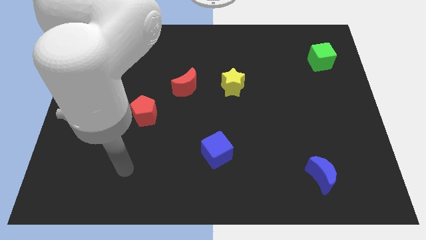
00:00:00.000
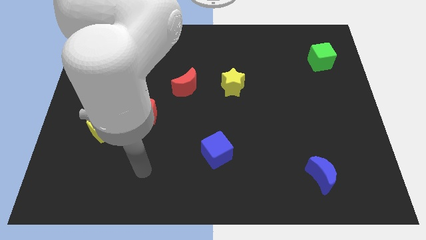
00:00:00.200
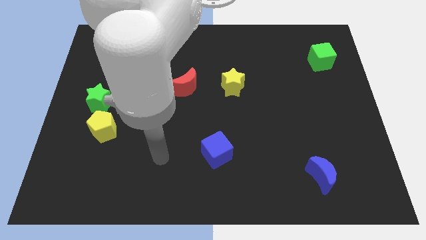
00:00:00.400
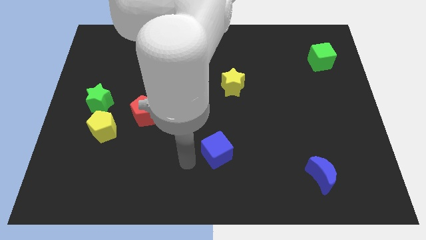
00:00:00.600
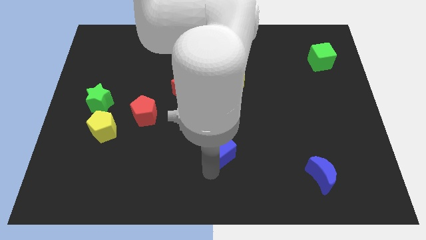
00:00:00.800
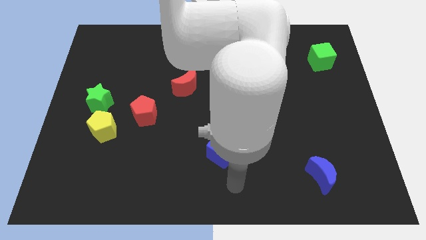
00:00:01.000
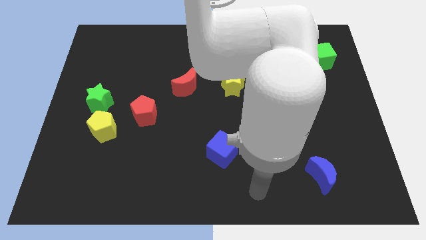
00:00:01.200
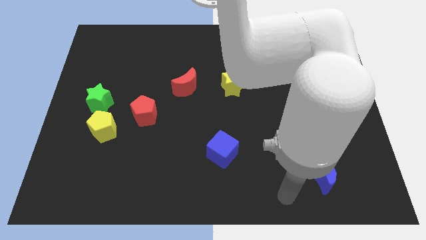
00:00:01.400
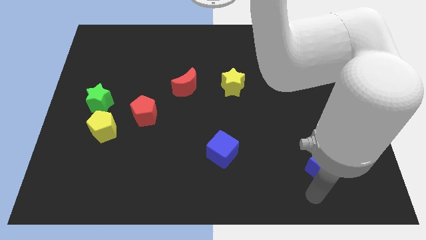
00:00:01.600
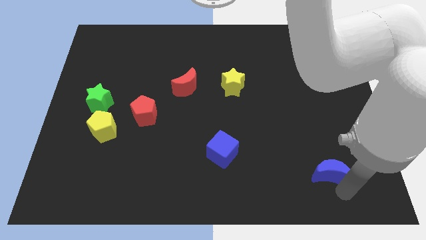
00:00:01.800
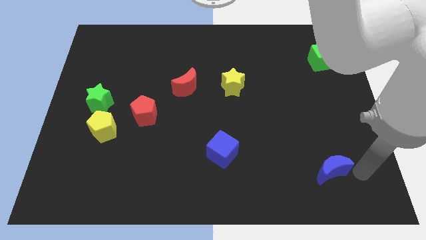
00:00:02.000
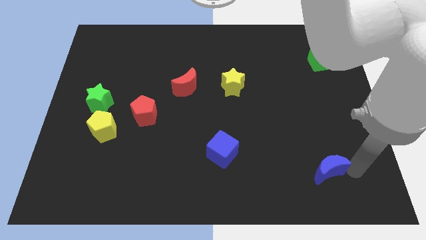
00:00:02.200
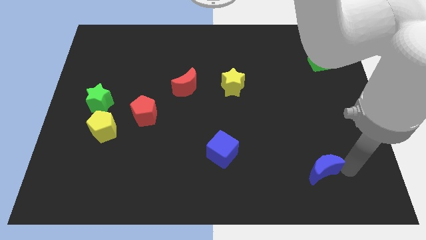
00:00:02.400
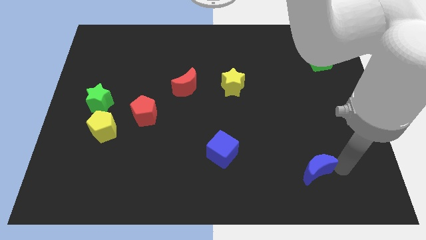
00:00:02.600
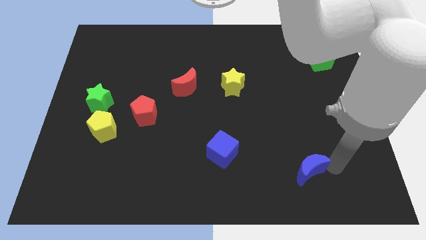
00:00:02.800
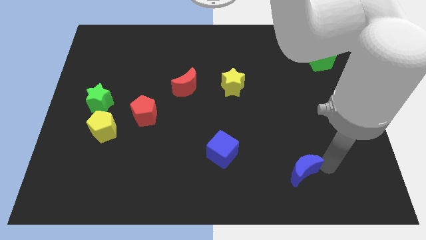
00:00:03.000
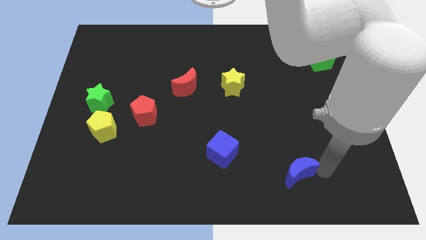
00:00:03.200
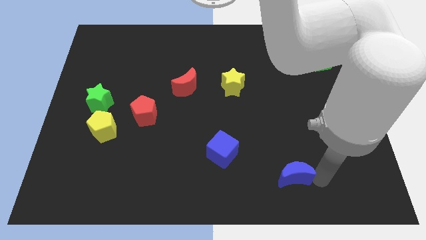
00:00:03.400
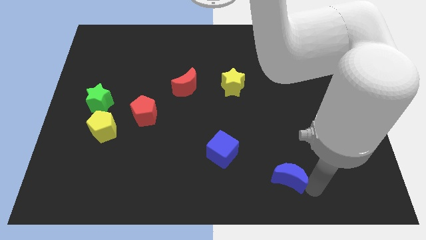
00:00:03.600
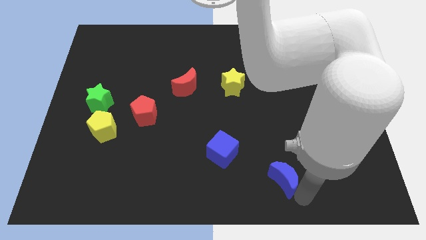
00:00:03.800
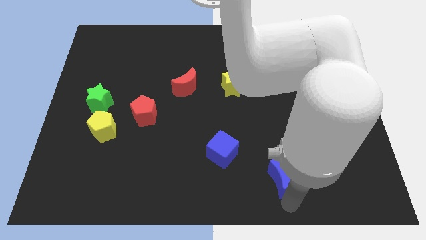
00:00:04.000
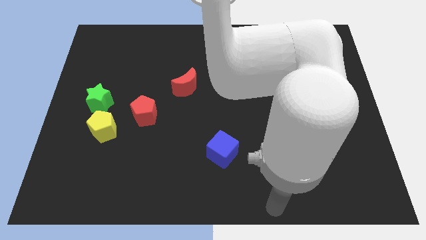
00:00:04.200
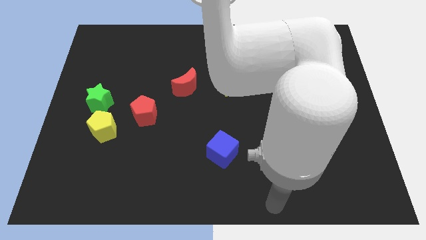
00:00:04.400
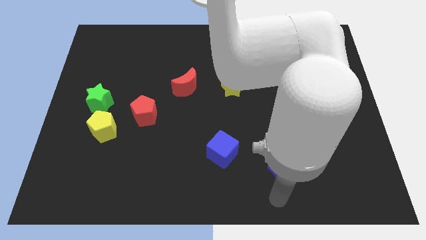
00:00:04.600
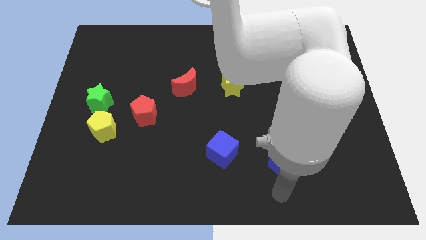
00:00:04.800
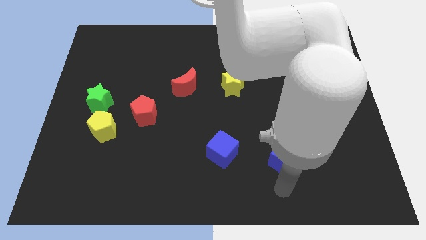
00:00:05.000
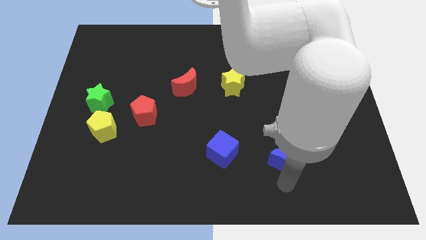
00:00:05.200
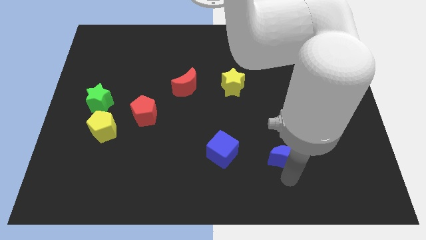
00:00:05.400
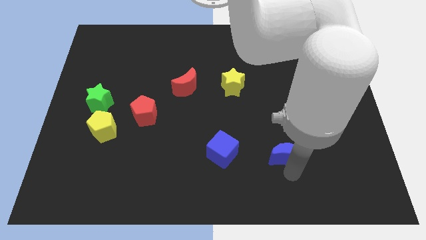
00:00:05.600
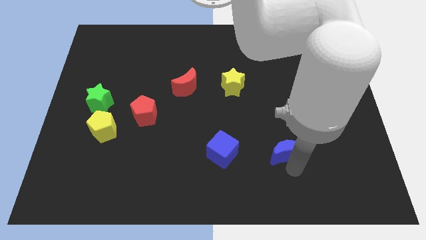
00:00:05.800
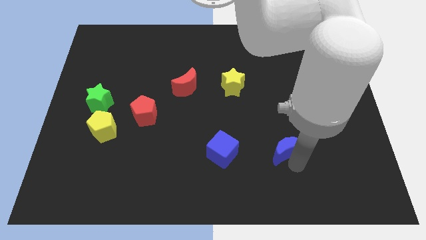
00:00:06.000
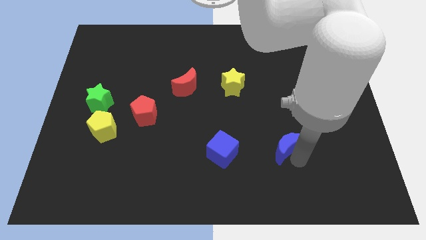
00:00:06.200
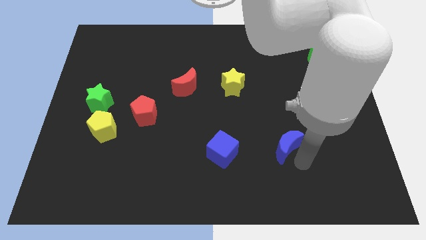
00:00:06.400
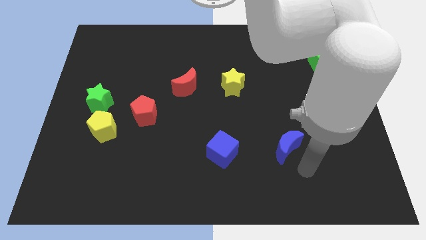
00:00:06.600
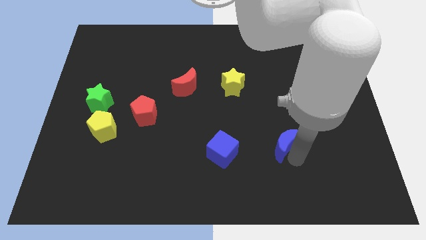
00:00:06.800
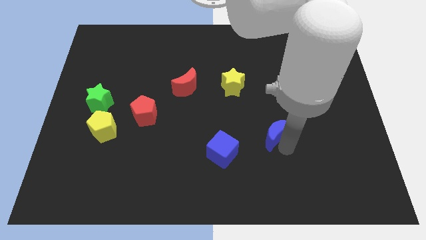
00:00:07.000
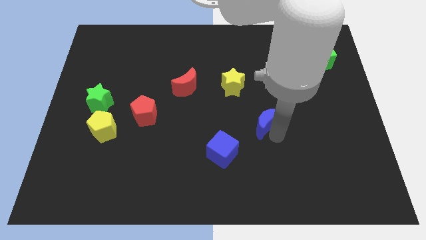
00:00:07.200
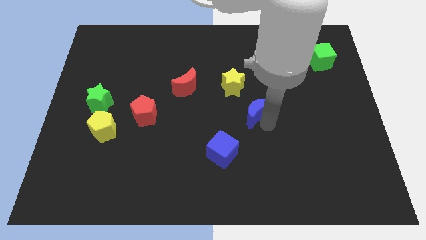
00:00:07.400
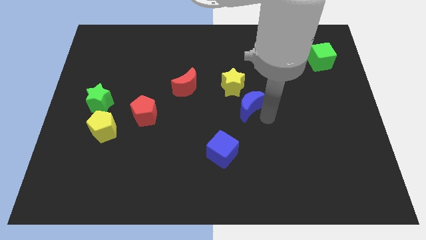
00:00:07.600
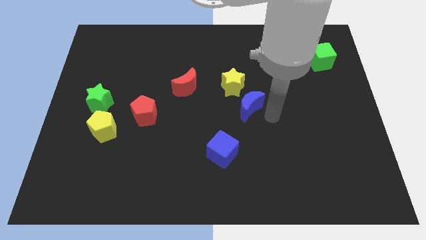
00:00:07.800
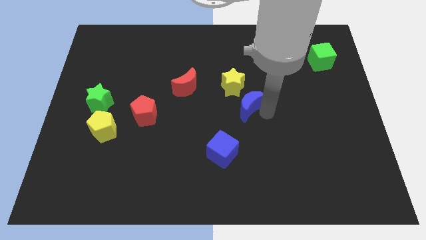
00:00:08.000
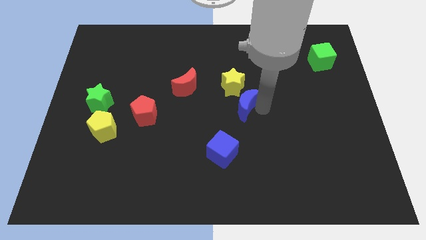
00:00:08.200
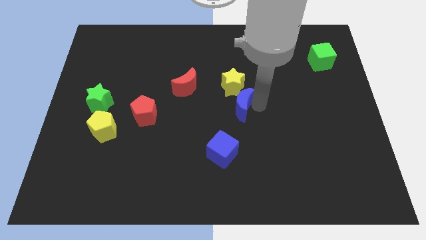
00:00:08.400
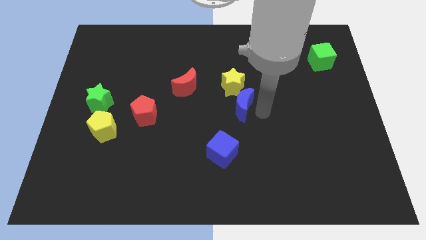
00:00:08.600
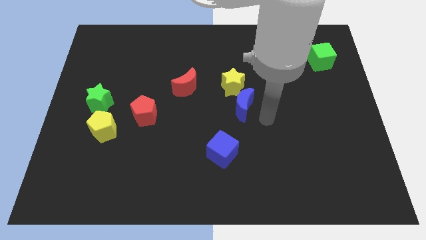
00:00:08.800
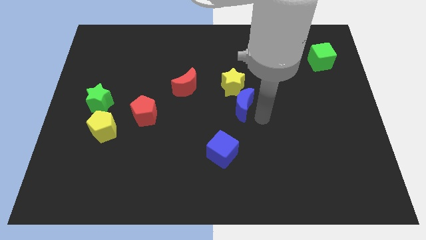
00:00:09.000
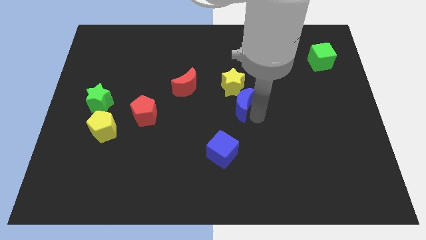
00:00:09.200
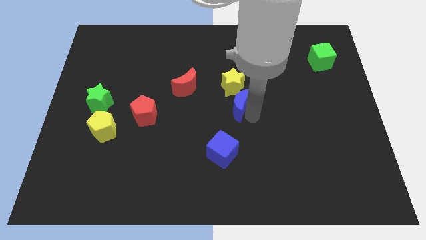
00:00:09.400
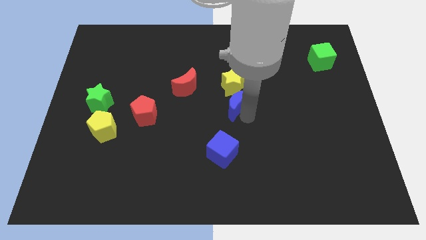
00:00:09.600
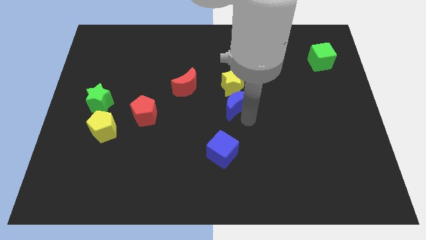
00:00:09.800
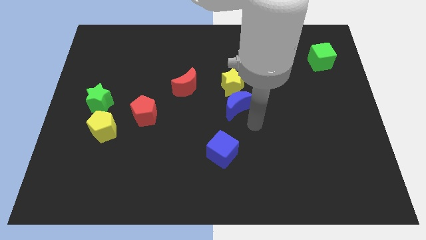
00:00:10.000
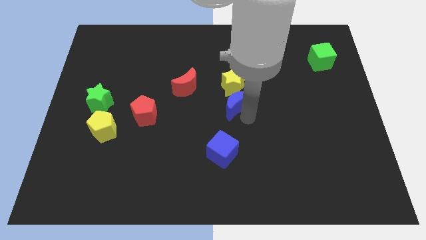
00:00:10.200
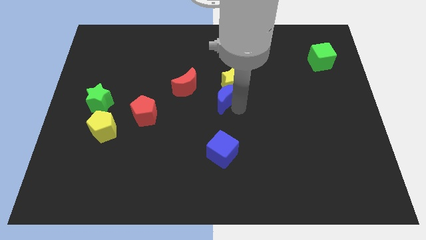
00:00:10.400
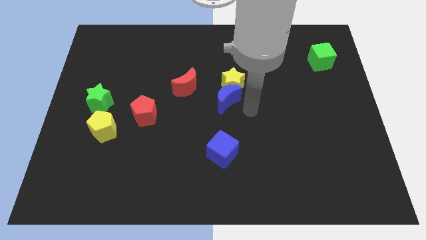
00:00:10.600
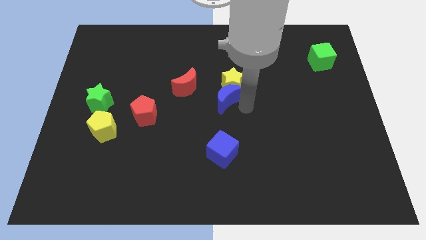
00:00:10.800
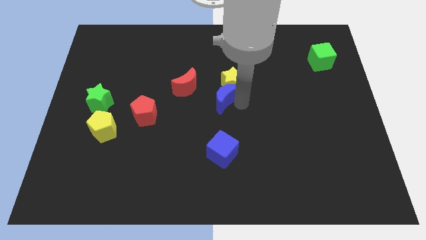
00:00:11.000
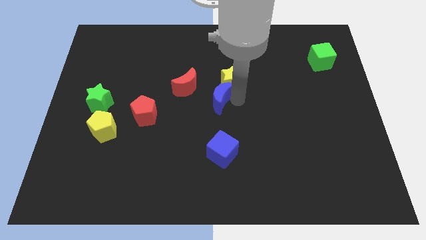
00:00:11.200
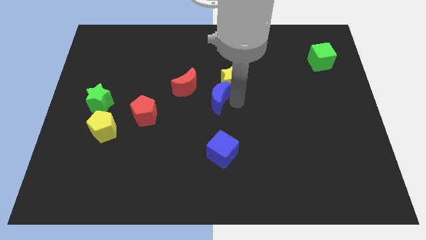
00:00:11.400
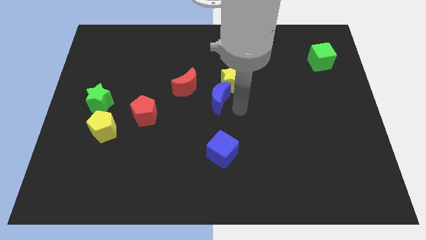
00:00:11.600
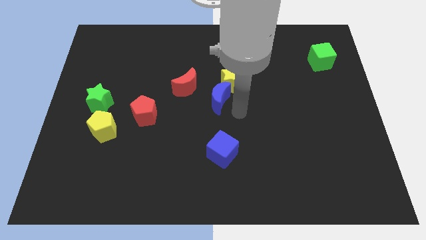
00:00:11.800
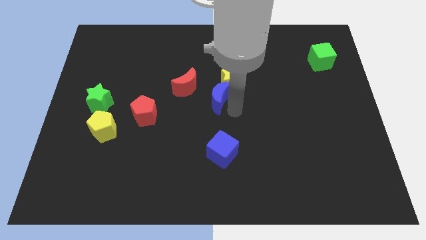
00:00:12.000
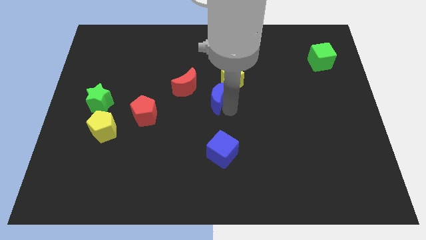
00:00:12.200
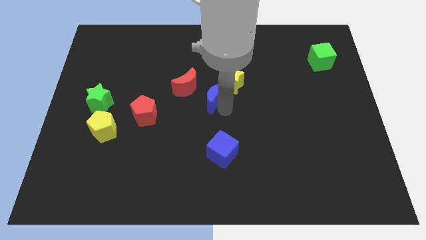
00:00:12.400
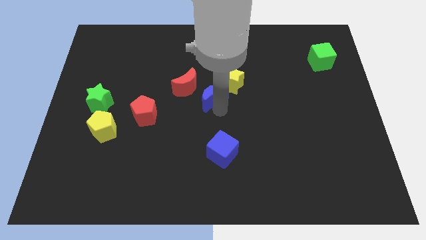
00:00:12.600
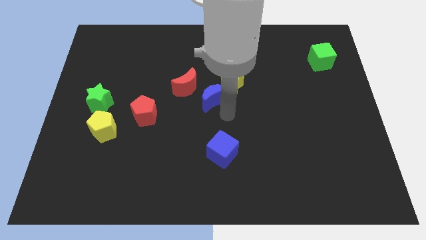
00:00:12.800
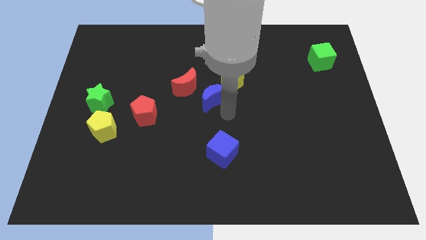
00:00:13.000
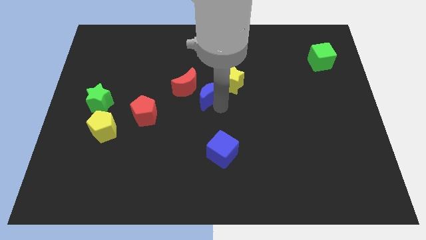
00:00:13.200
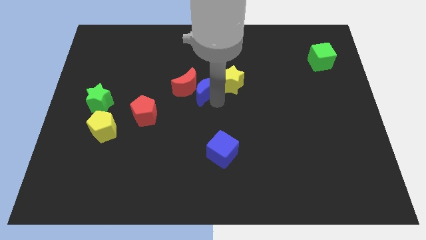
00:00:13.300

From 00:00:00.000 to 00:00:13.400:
slide the blue moon towards the red moon
